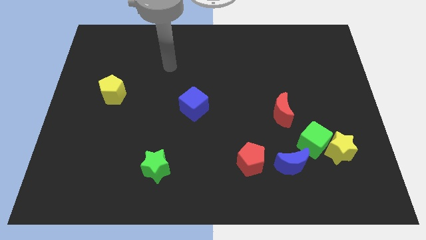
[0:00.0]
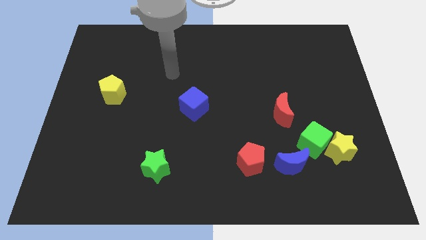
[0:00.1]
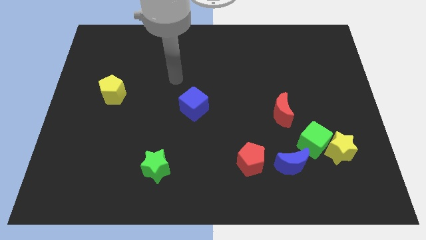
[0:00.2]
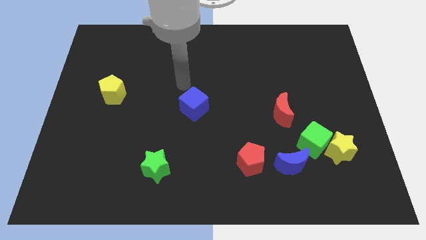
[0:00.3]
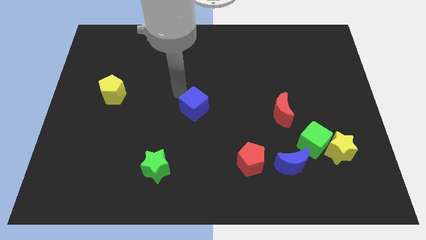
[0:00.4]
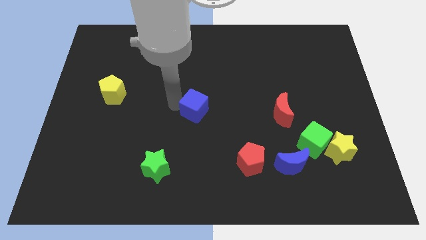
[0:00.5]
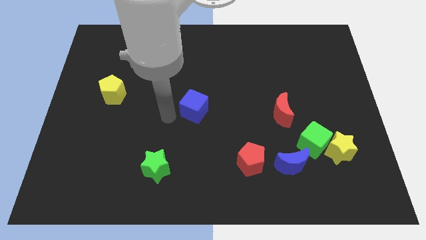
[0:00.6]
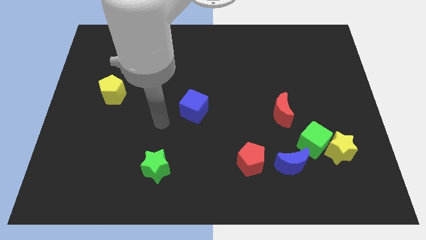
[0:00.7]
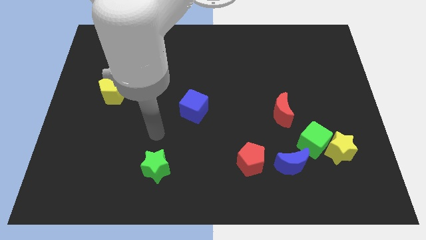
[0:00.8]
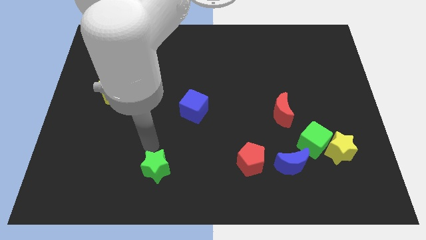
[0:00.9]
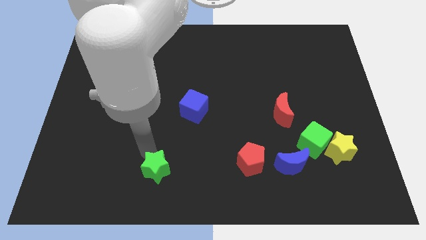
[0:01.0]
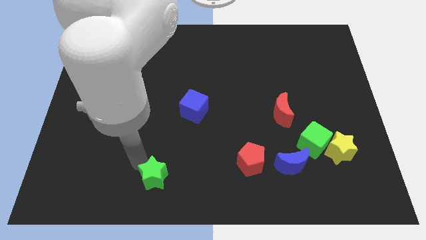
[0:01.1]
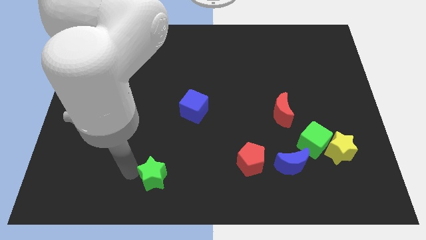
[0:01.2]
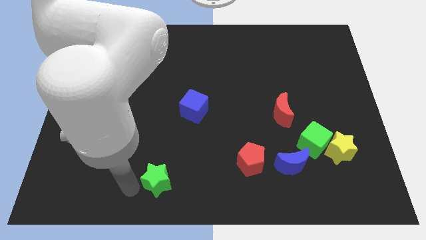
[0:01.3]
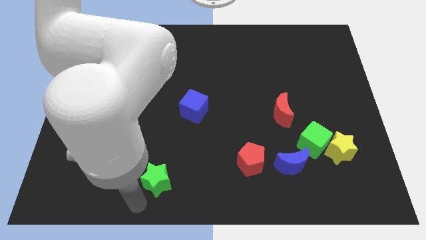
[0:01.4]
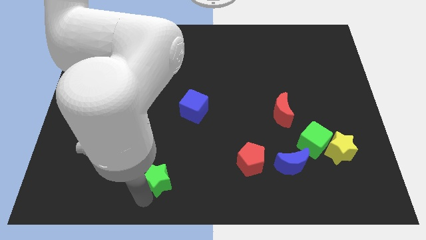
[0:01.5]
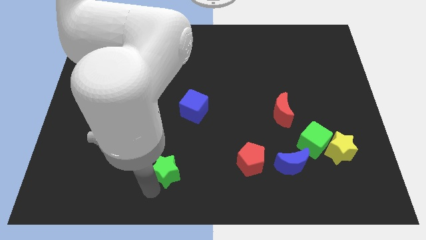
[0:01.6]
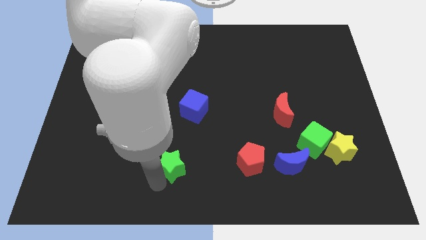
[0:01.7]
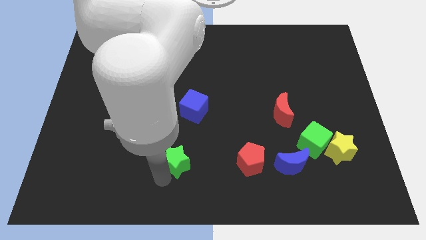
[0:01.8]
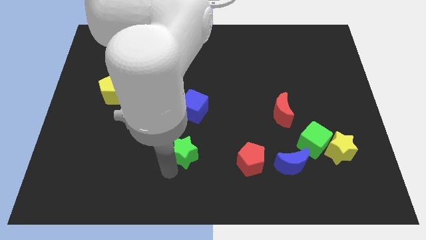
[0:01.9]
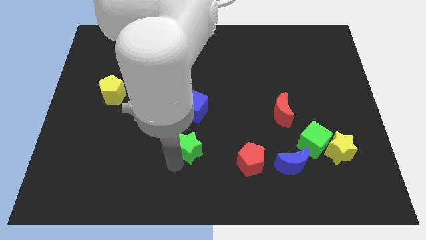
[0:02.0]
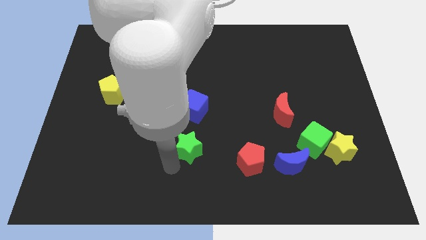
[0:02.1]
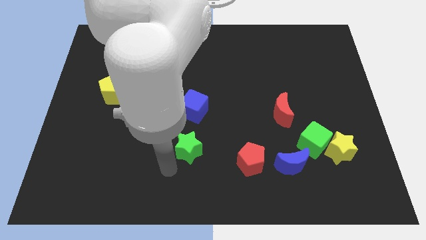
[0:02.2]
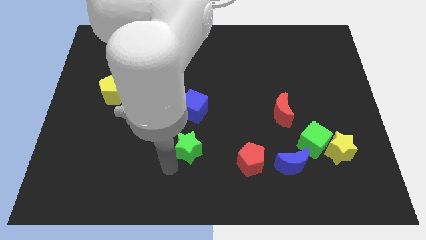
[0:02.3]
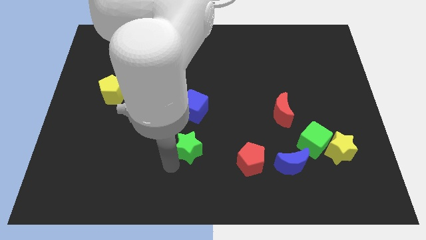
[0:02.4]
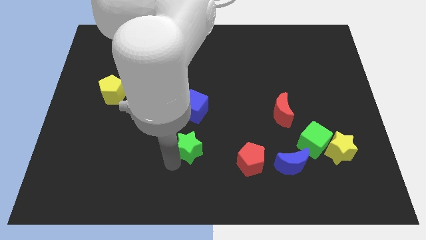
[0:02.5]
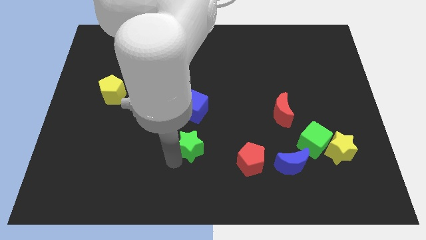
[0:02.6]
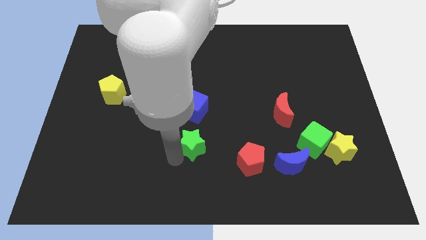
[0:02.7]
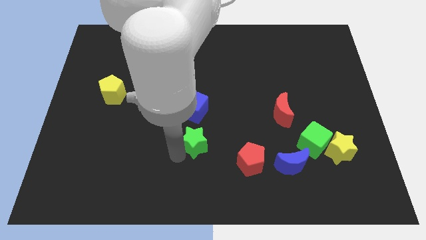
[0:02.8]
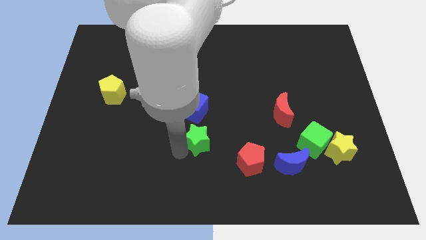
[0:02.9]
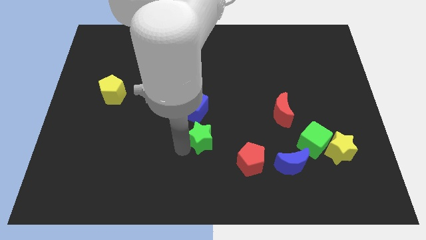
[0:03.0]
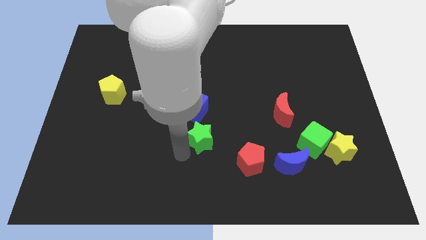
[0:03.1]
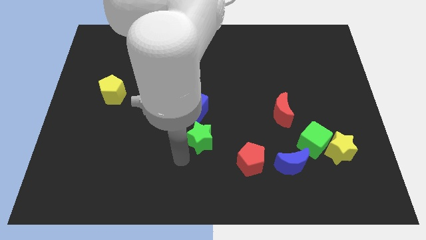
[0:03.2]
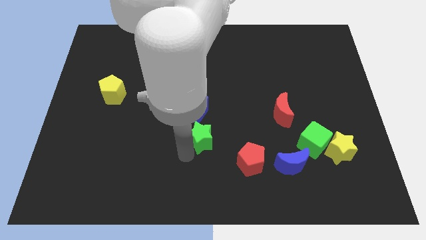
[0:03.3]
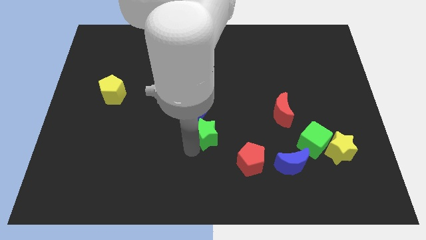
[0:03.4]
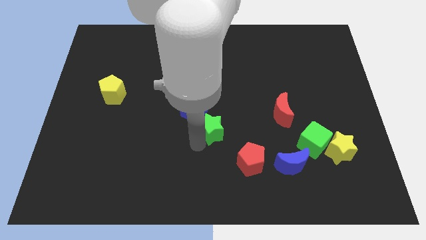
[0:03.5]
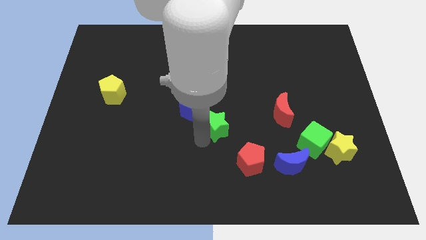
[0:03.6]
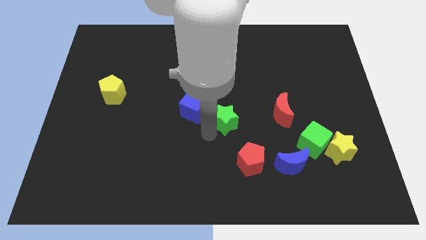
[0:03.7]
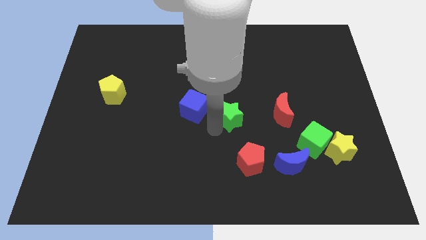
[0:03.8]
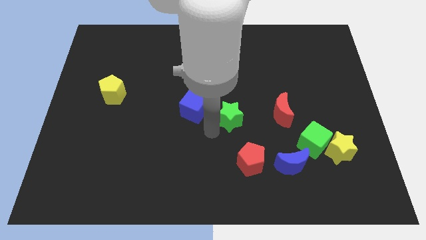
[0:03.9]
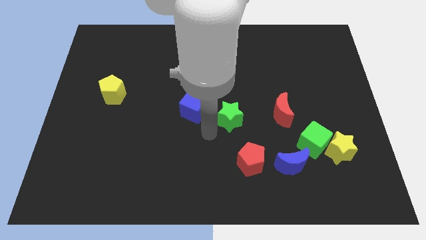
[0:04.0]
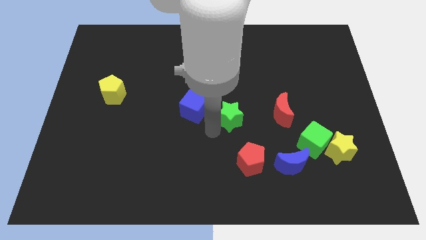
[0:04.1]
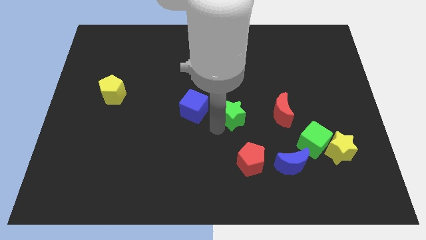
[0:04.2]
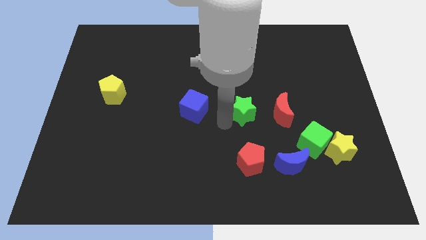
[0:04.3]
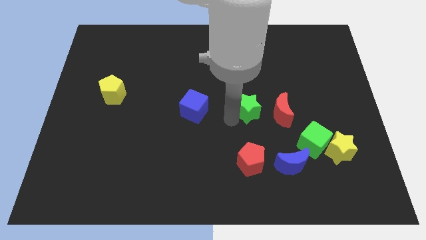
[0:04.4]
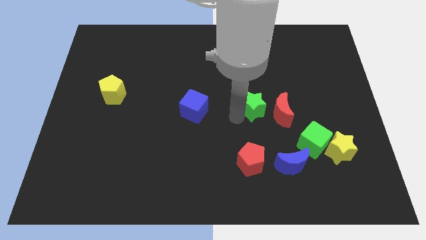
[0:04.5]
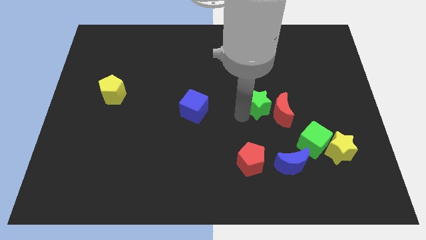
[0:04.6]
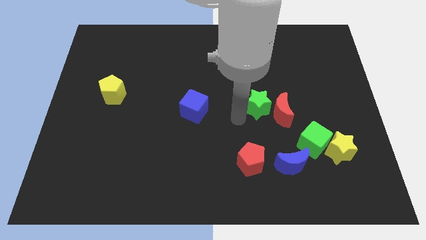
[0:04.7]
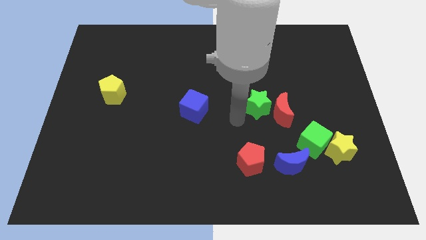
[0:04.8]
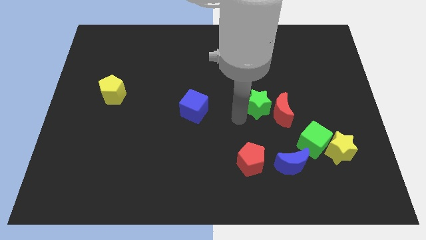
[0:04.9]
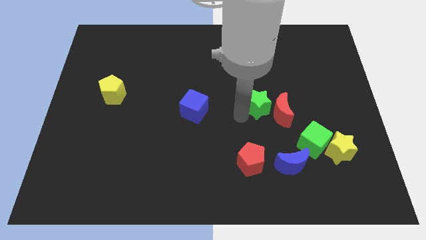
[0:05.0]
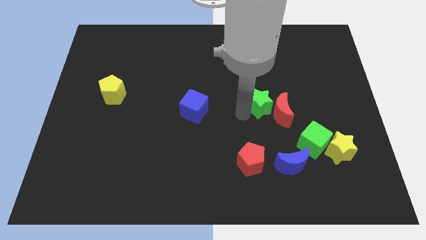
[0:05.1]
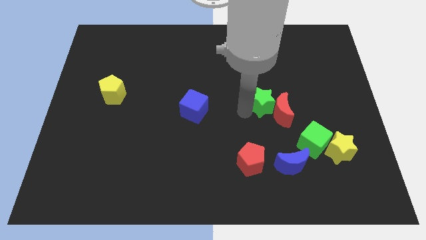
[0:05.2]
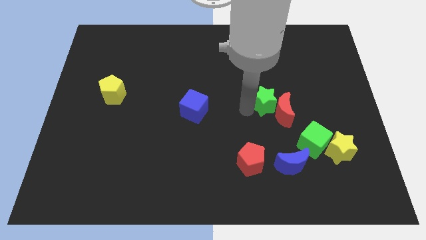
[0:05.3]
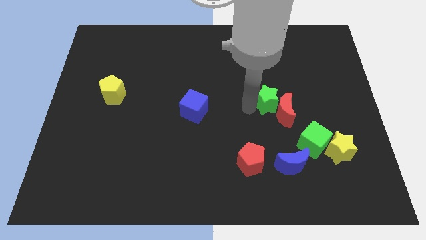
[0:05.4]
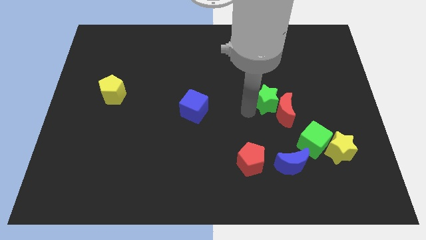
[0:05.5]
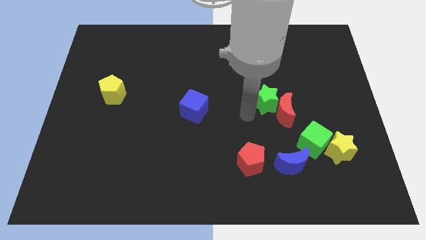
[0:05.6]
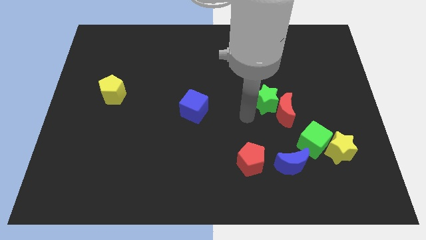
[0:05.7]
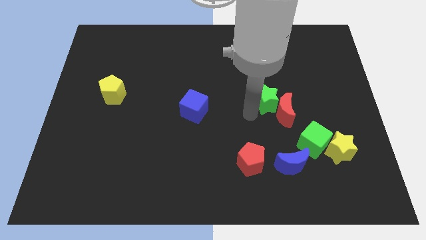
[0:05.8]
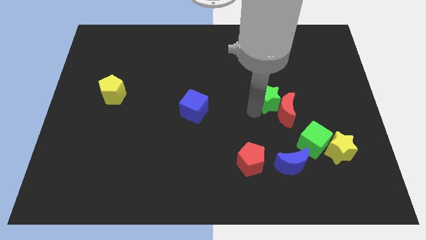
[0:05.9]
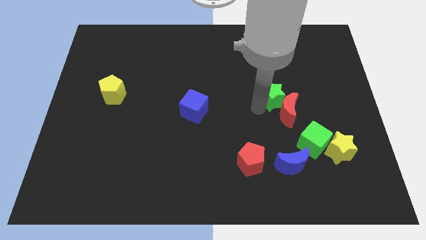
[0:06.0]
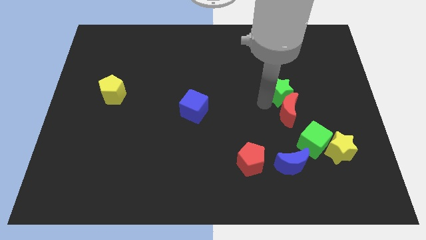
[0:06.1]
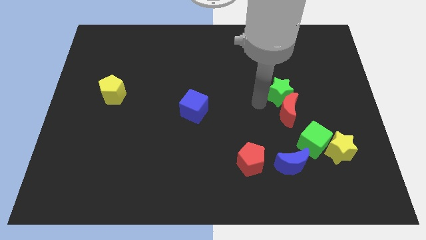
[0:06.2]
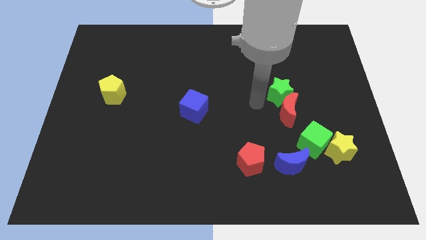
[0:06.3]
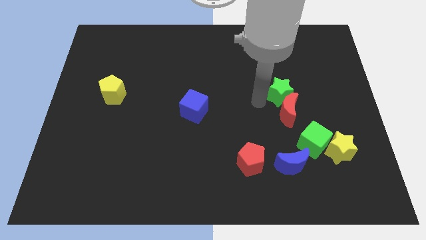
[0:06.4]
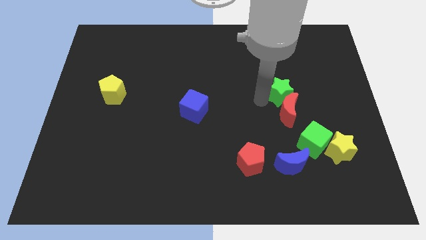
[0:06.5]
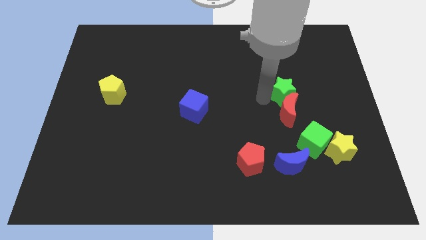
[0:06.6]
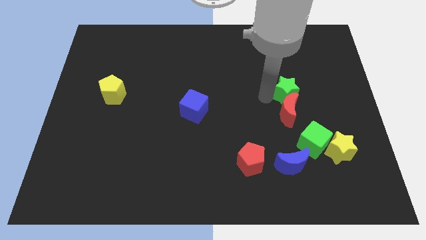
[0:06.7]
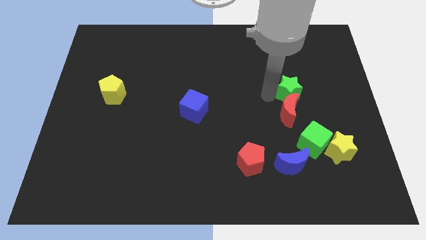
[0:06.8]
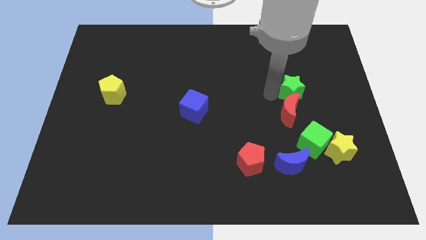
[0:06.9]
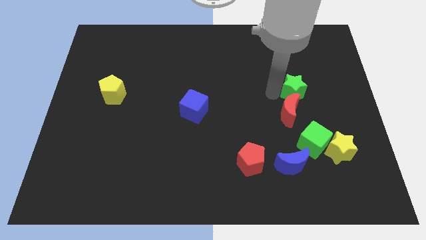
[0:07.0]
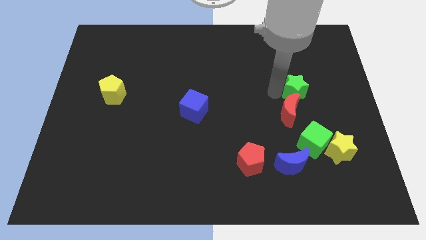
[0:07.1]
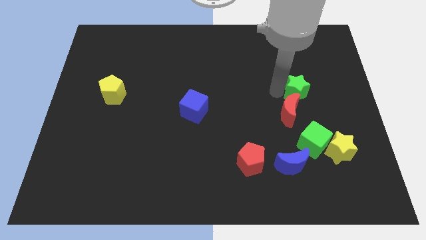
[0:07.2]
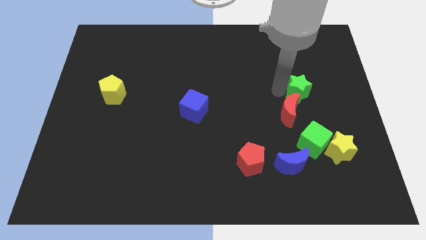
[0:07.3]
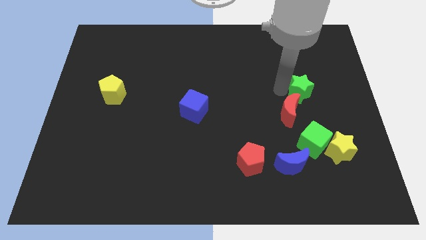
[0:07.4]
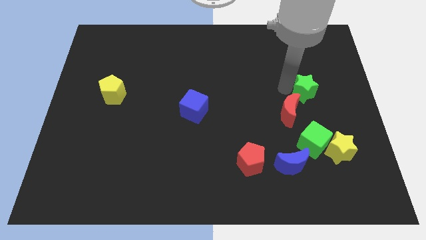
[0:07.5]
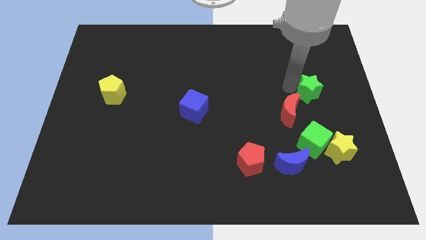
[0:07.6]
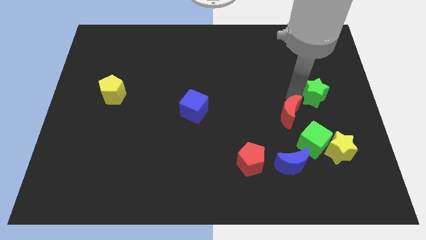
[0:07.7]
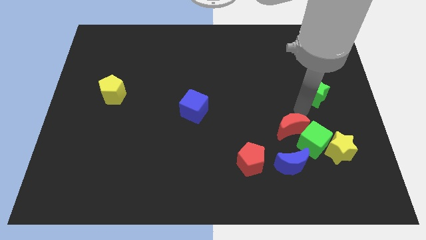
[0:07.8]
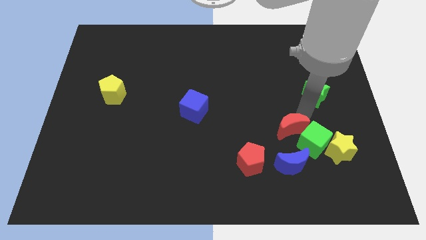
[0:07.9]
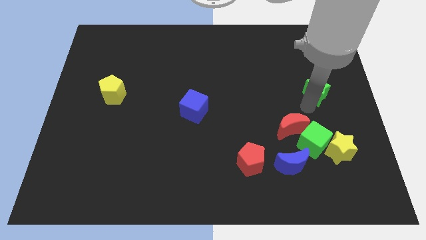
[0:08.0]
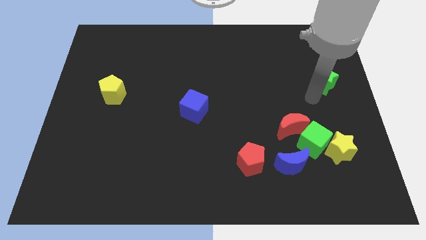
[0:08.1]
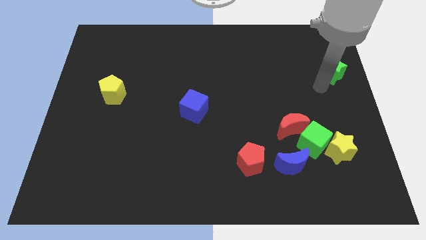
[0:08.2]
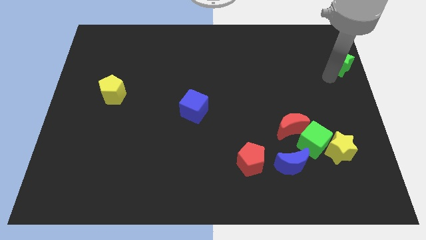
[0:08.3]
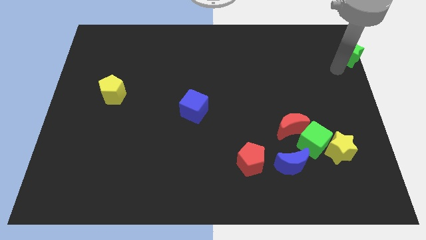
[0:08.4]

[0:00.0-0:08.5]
move the green star to the top right of the board
